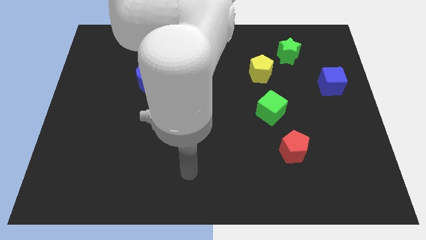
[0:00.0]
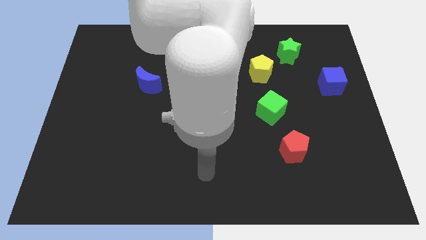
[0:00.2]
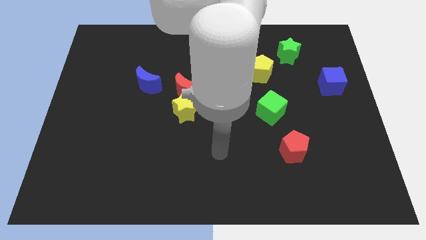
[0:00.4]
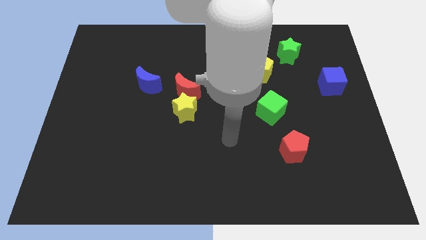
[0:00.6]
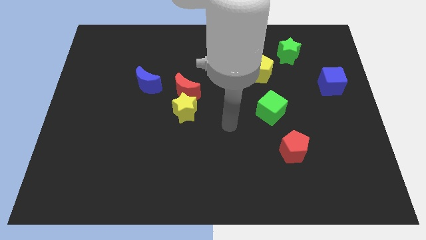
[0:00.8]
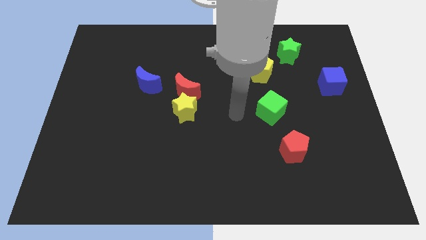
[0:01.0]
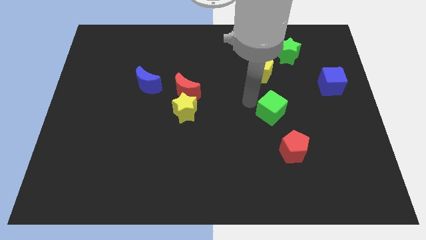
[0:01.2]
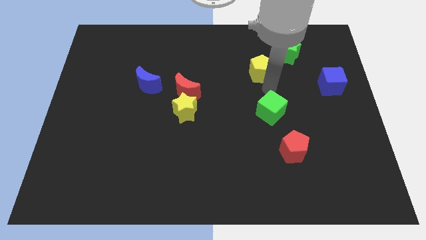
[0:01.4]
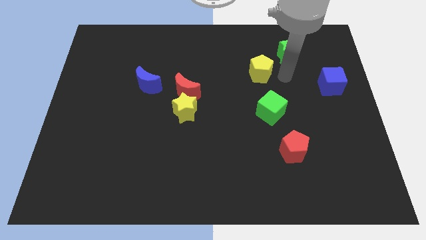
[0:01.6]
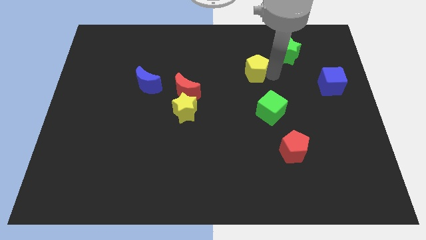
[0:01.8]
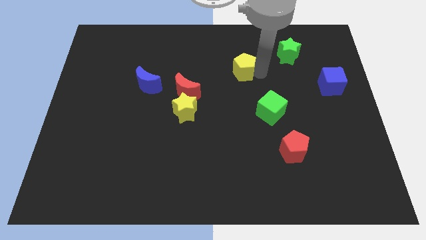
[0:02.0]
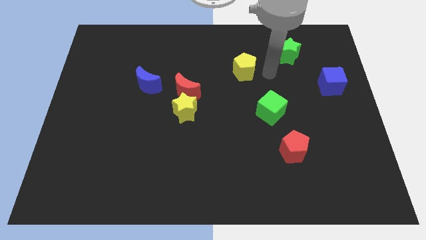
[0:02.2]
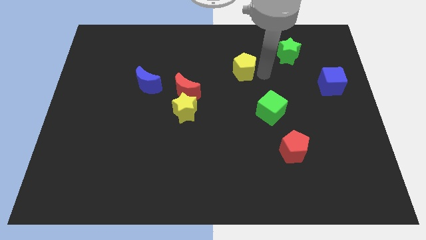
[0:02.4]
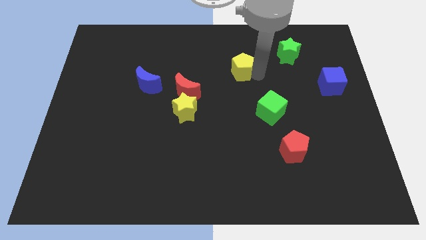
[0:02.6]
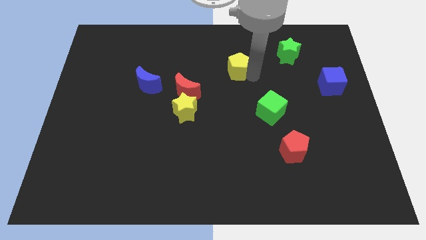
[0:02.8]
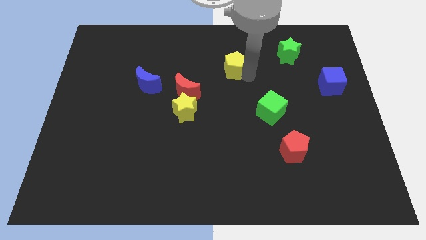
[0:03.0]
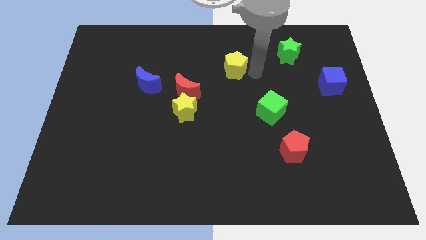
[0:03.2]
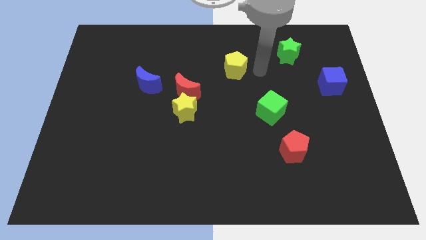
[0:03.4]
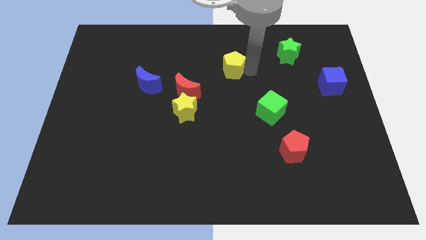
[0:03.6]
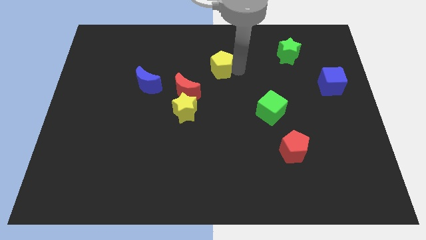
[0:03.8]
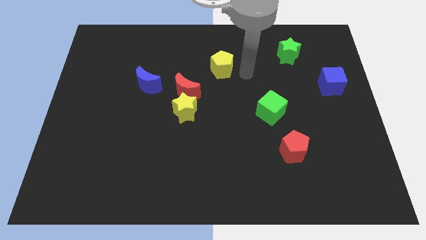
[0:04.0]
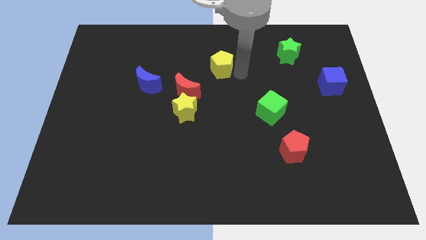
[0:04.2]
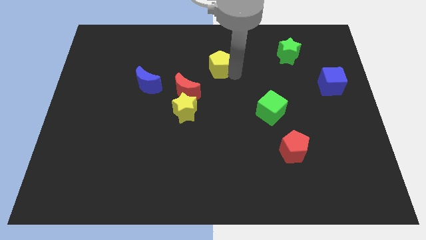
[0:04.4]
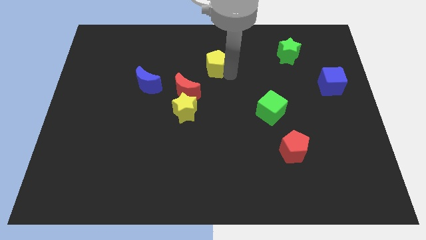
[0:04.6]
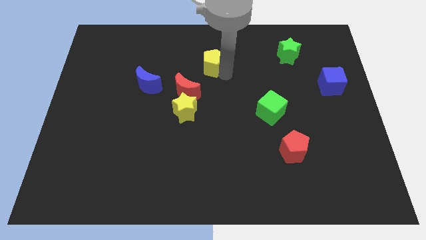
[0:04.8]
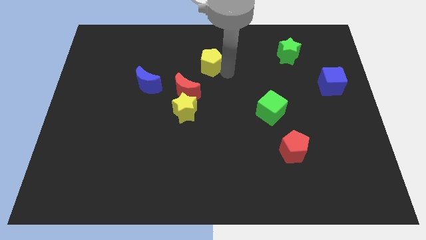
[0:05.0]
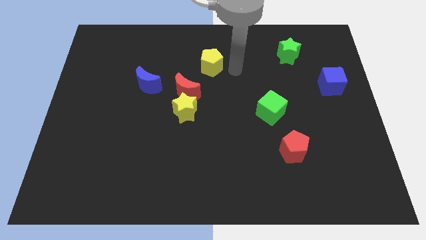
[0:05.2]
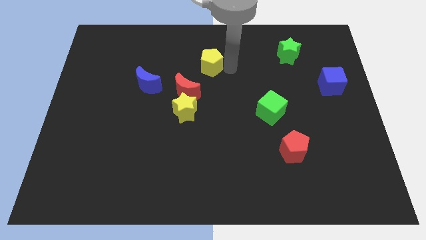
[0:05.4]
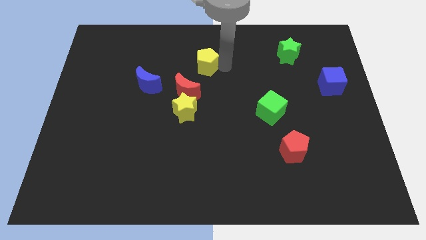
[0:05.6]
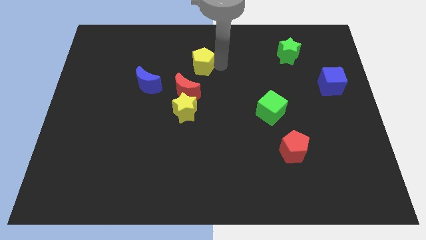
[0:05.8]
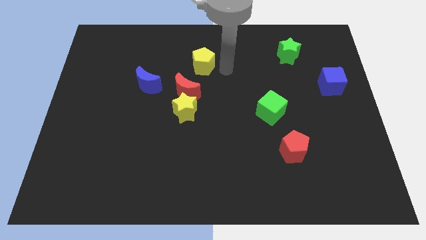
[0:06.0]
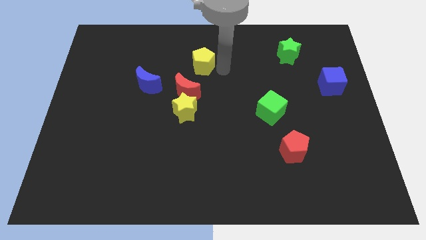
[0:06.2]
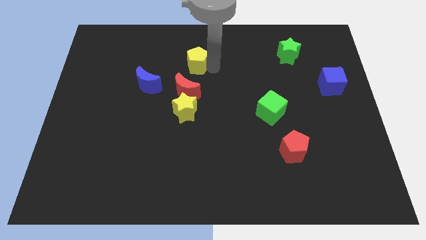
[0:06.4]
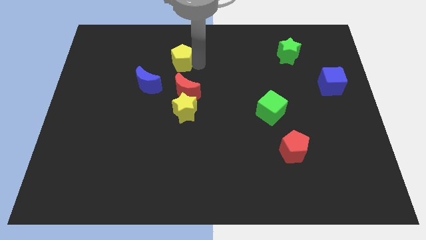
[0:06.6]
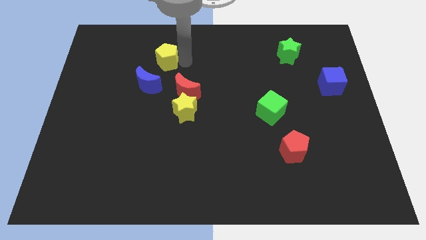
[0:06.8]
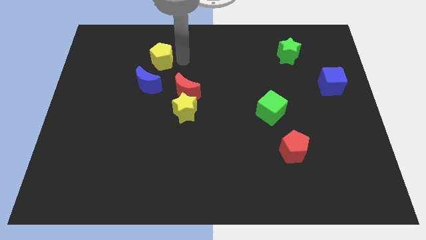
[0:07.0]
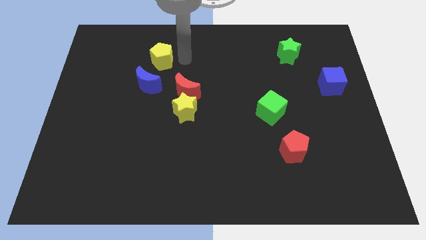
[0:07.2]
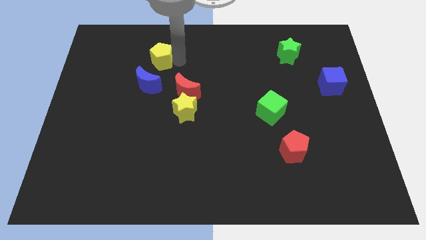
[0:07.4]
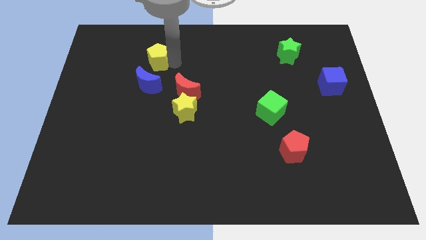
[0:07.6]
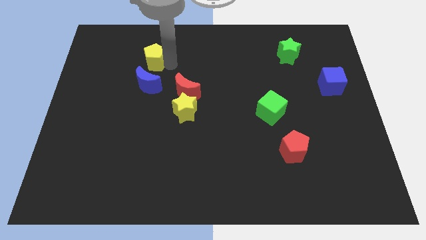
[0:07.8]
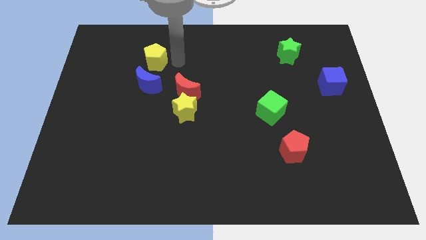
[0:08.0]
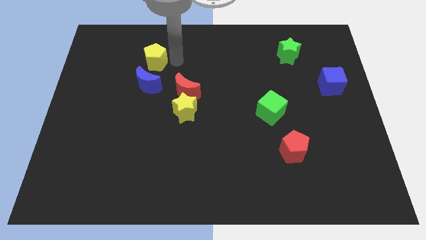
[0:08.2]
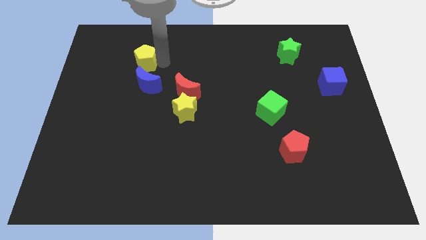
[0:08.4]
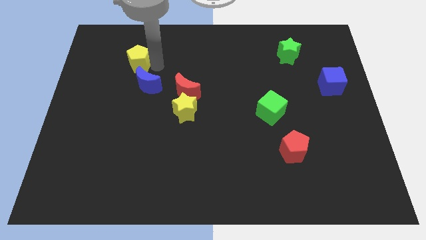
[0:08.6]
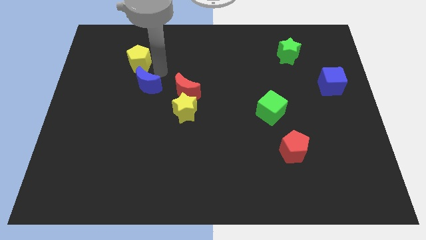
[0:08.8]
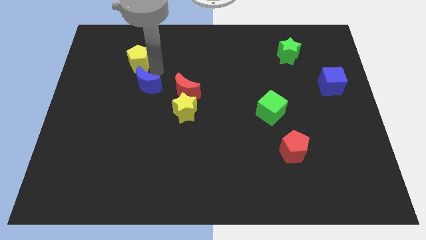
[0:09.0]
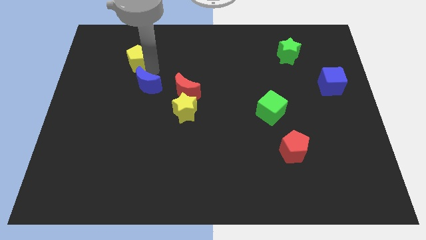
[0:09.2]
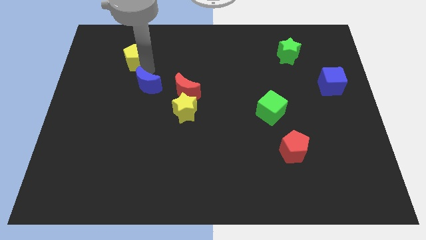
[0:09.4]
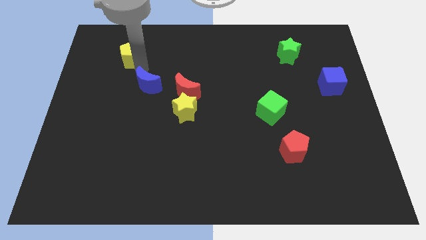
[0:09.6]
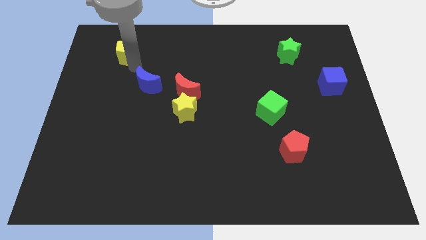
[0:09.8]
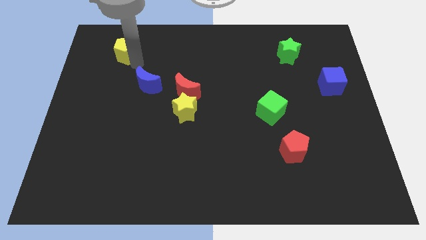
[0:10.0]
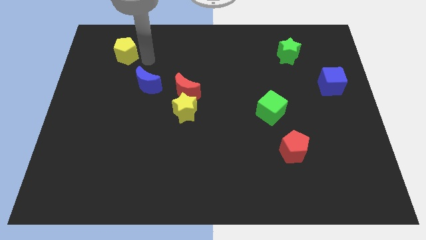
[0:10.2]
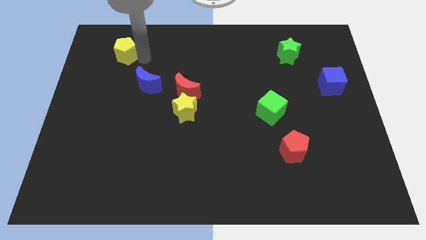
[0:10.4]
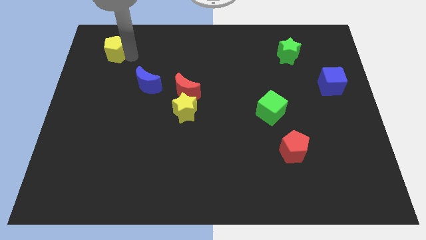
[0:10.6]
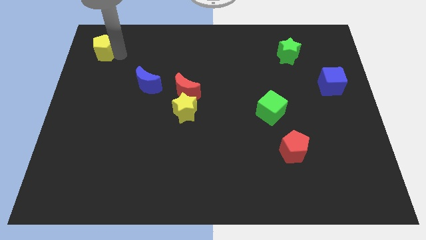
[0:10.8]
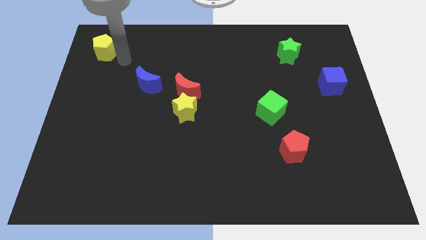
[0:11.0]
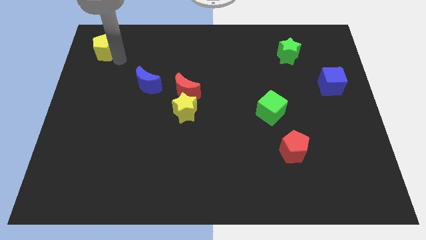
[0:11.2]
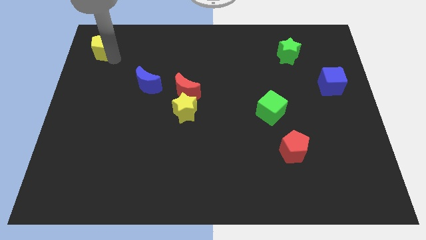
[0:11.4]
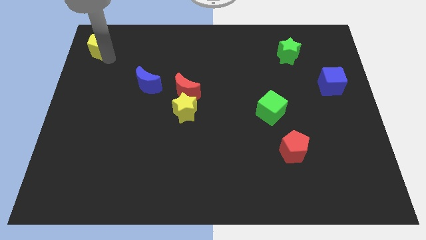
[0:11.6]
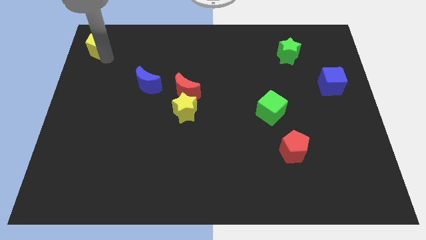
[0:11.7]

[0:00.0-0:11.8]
put the yellow pentagon to the top left corner

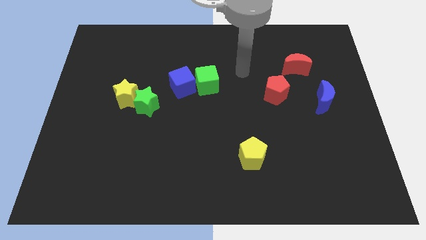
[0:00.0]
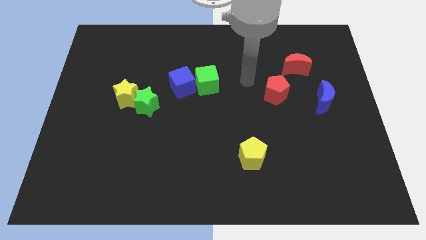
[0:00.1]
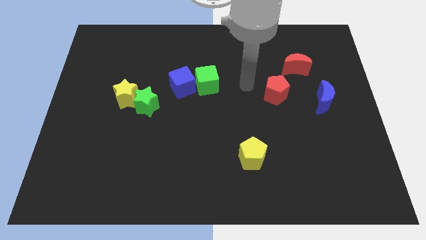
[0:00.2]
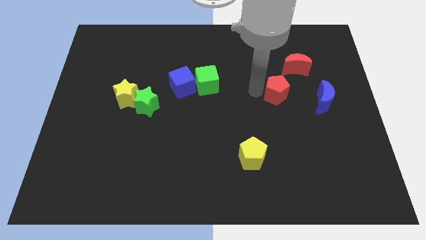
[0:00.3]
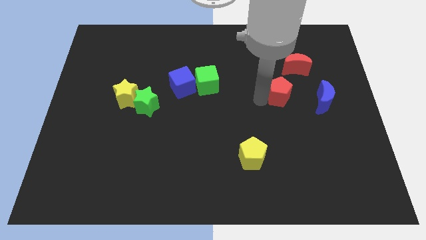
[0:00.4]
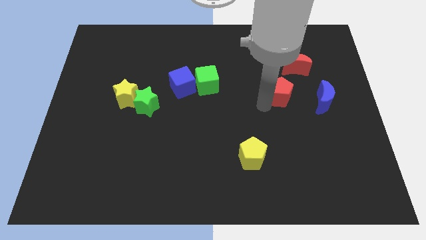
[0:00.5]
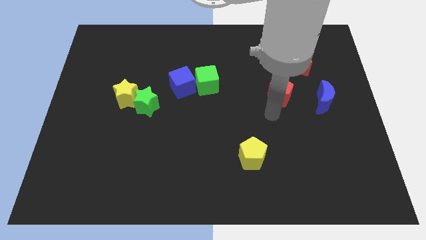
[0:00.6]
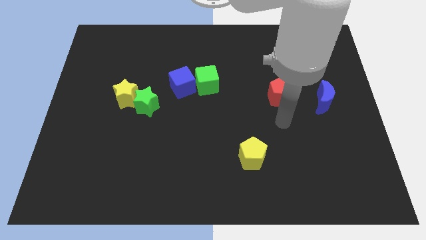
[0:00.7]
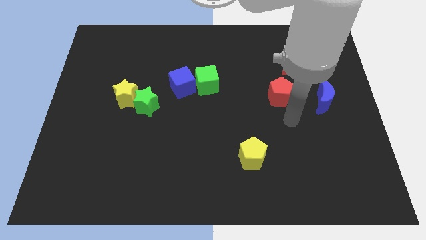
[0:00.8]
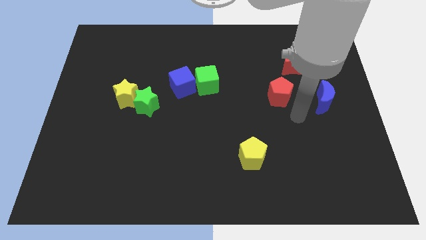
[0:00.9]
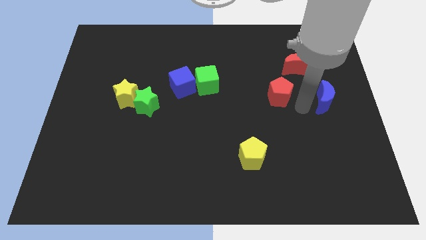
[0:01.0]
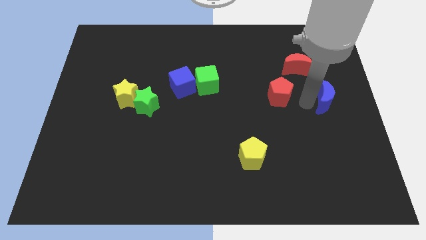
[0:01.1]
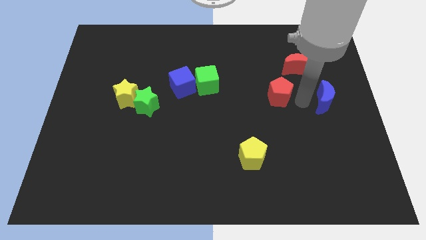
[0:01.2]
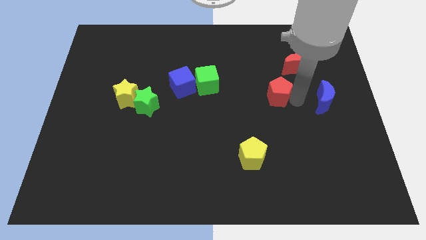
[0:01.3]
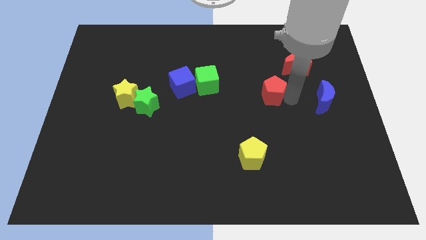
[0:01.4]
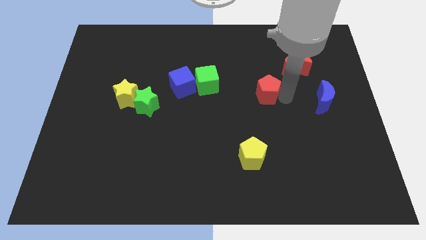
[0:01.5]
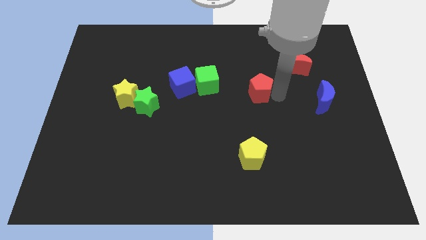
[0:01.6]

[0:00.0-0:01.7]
put the red pentagon to the center of the board
